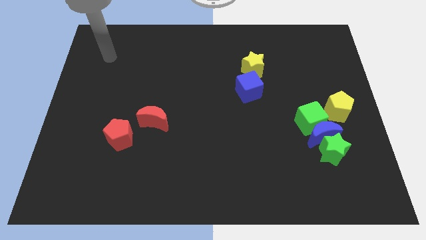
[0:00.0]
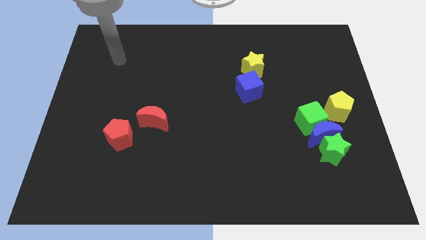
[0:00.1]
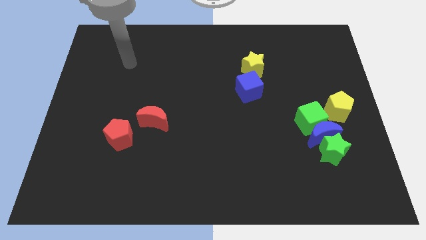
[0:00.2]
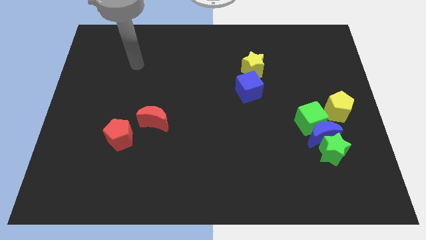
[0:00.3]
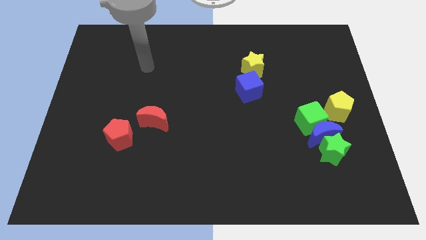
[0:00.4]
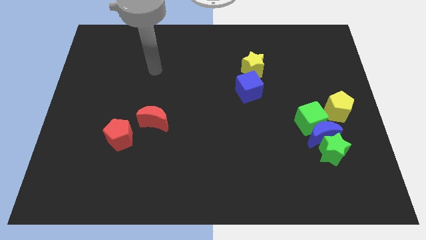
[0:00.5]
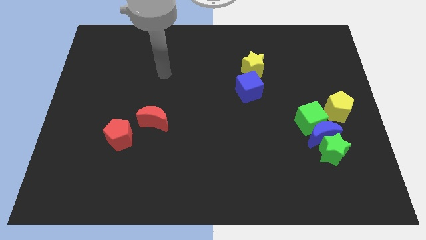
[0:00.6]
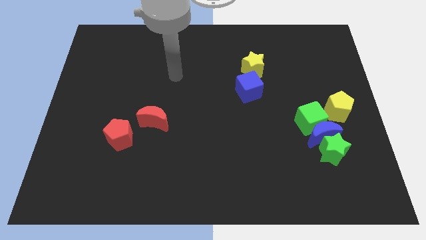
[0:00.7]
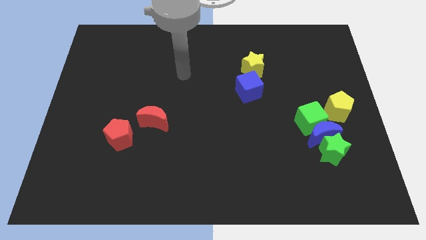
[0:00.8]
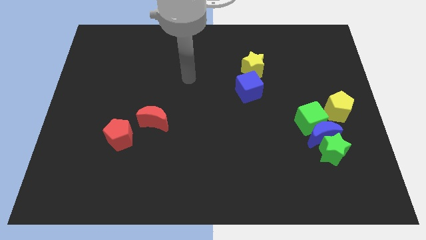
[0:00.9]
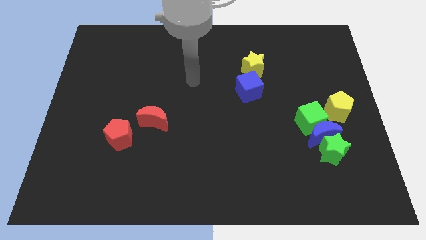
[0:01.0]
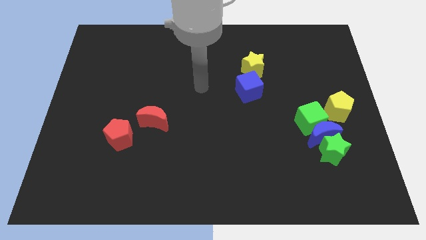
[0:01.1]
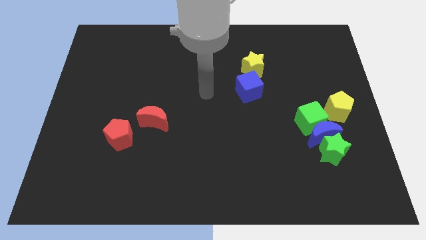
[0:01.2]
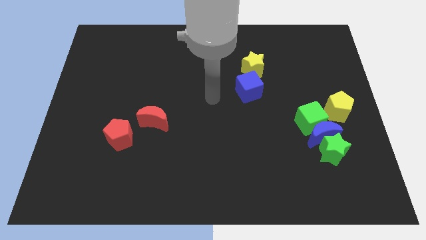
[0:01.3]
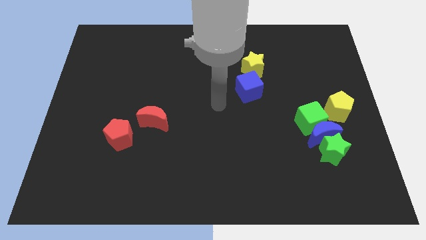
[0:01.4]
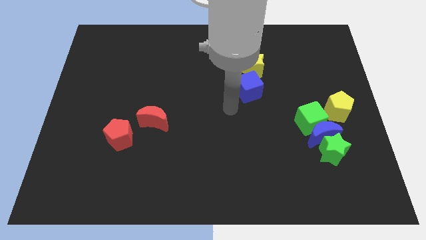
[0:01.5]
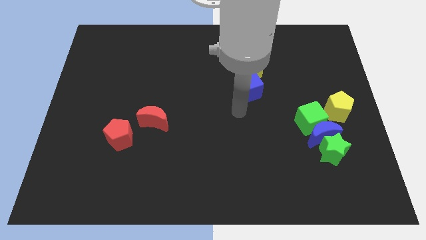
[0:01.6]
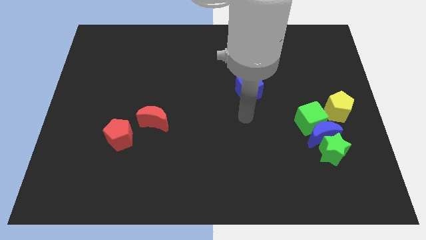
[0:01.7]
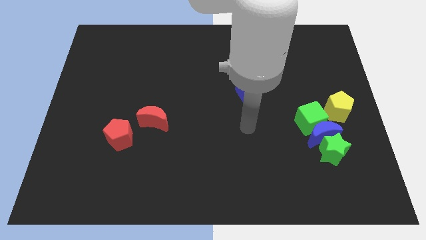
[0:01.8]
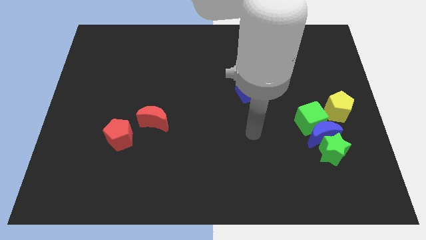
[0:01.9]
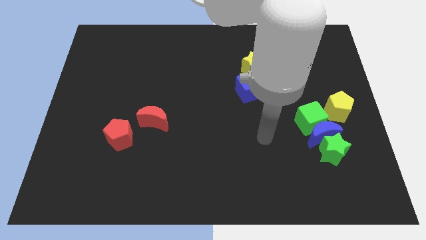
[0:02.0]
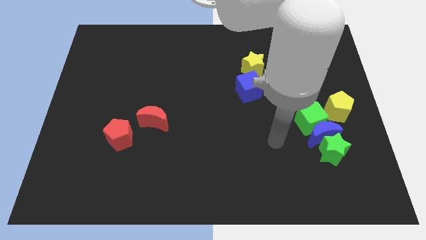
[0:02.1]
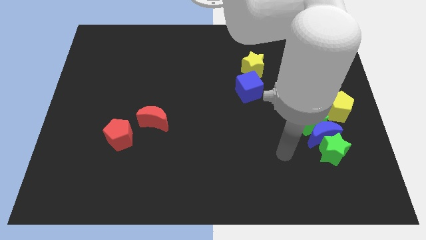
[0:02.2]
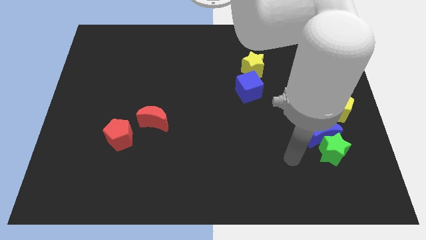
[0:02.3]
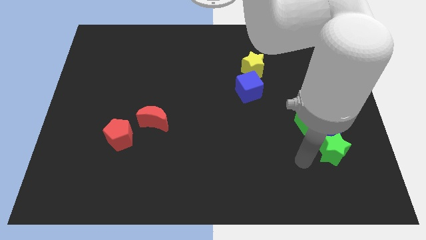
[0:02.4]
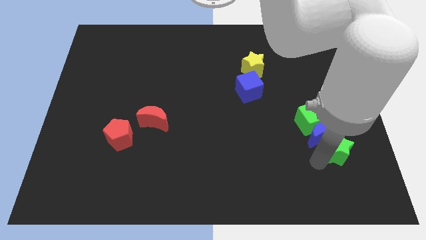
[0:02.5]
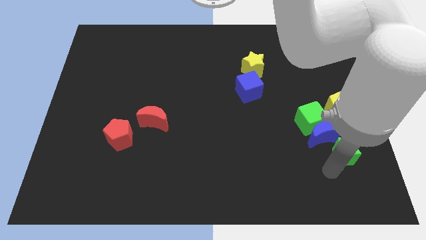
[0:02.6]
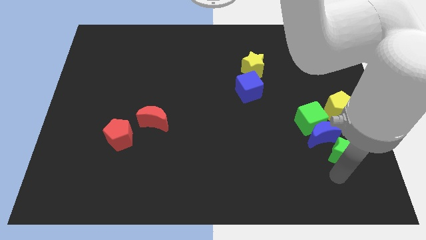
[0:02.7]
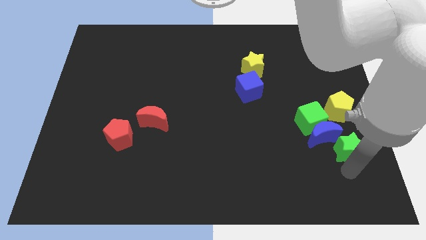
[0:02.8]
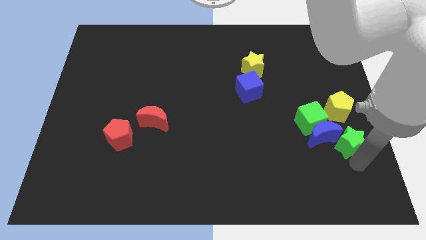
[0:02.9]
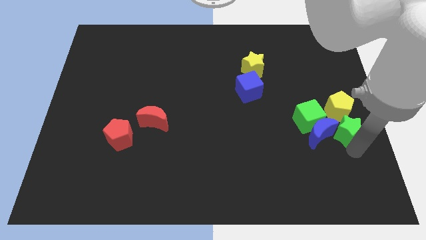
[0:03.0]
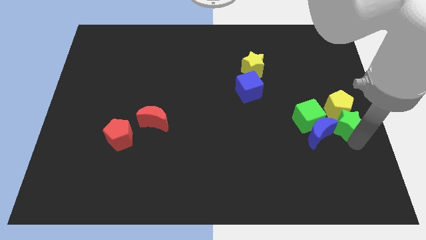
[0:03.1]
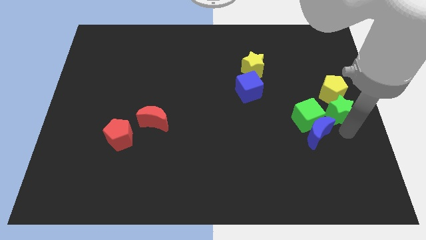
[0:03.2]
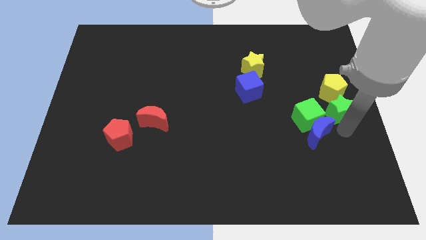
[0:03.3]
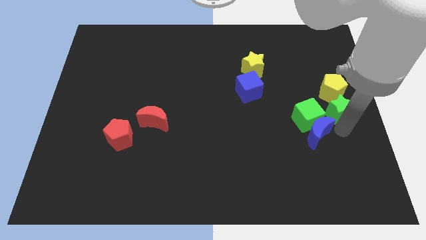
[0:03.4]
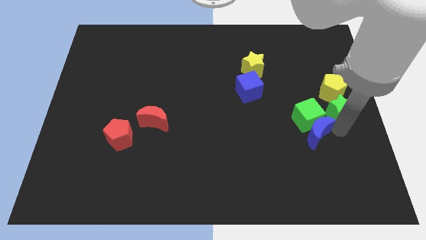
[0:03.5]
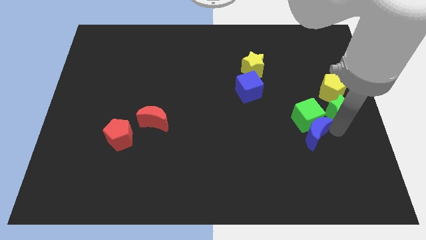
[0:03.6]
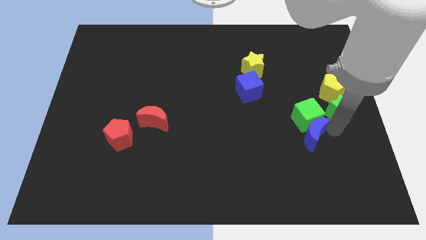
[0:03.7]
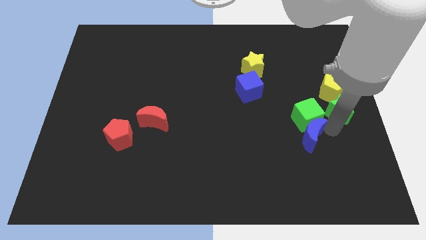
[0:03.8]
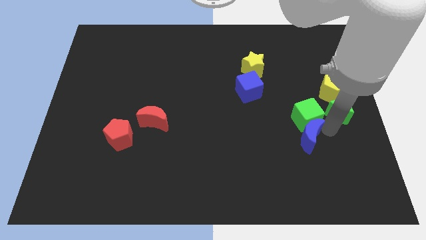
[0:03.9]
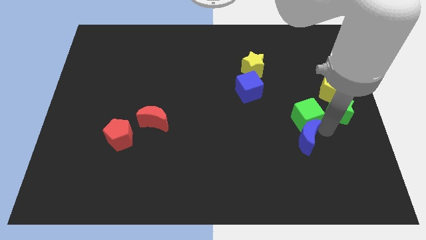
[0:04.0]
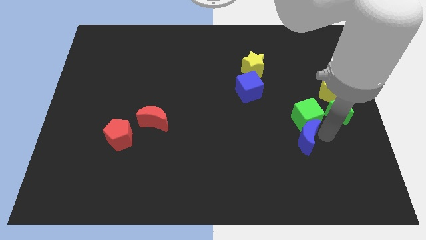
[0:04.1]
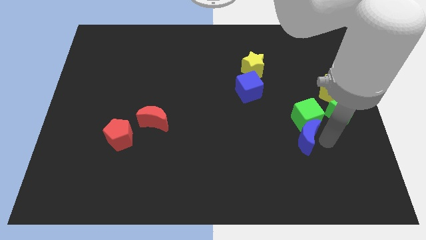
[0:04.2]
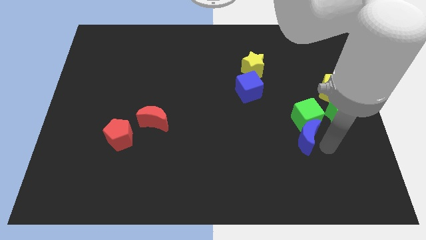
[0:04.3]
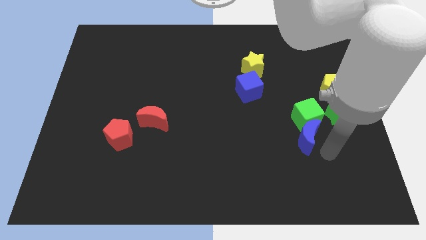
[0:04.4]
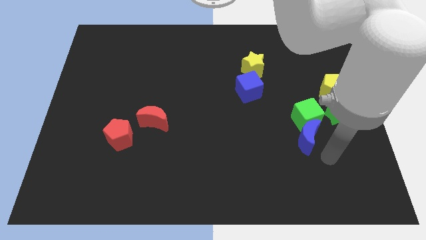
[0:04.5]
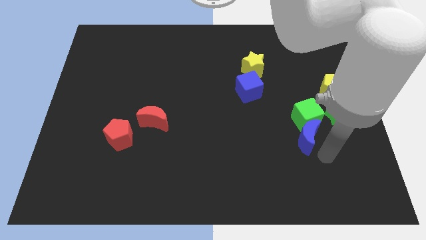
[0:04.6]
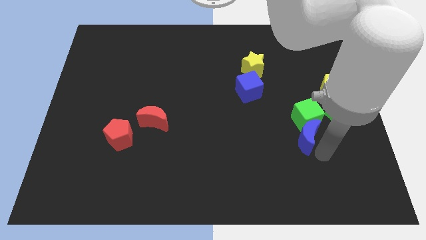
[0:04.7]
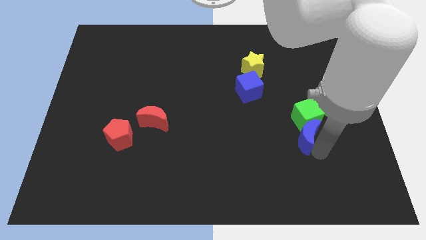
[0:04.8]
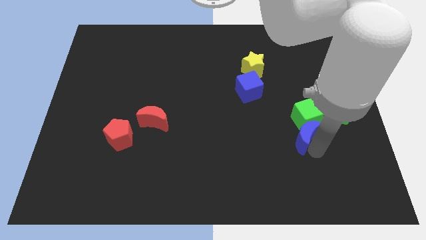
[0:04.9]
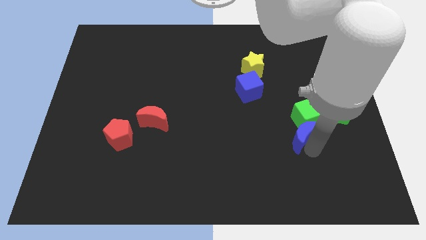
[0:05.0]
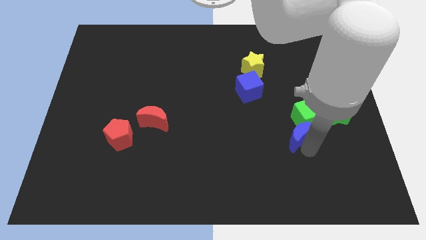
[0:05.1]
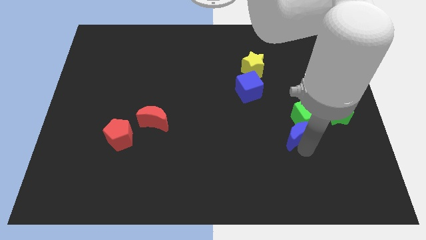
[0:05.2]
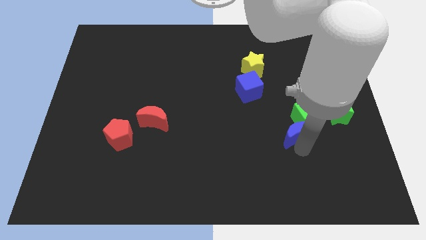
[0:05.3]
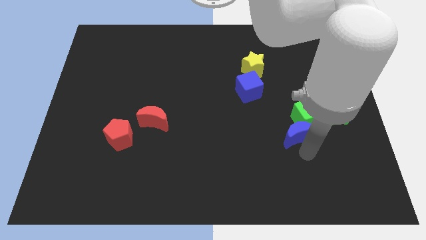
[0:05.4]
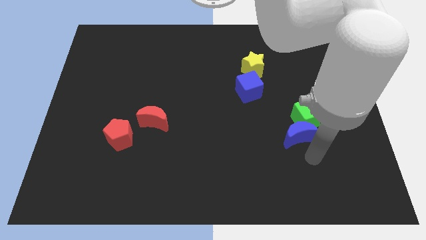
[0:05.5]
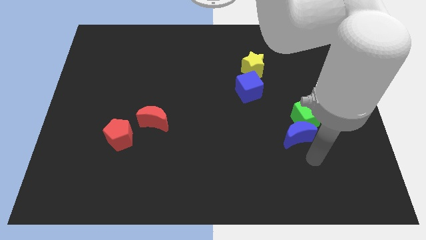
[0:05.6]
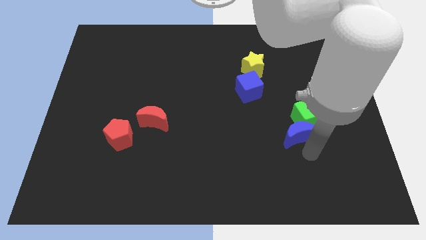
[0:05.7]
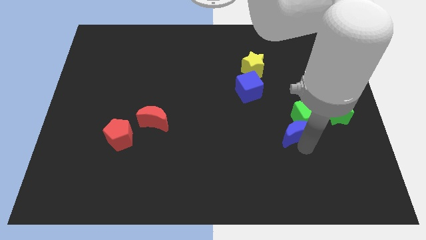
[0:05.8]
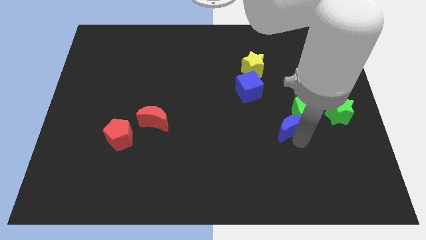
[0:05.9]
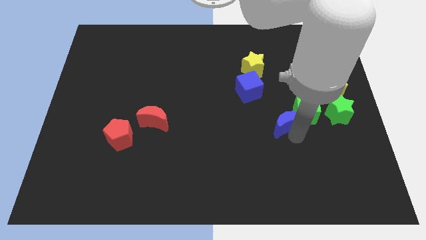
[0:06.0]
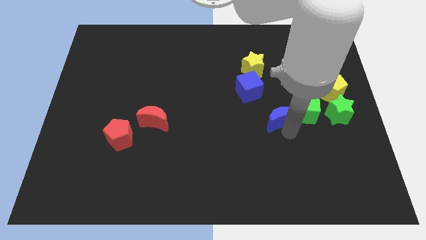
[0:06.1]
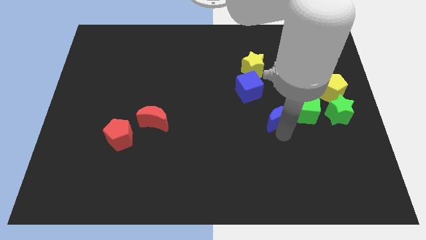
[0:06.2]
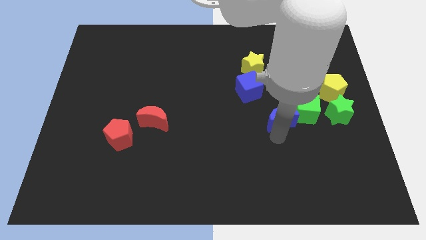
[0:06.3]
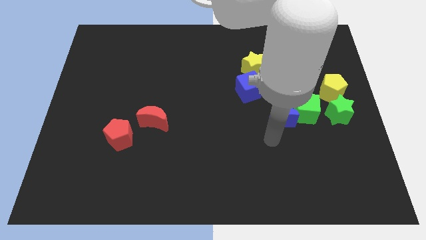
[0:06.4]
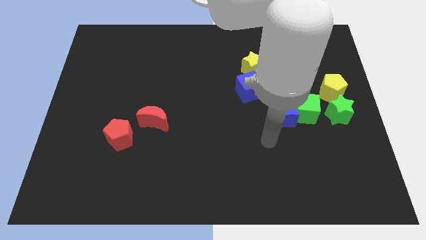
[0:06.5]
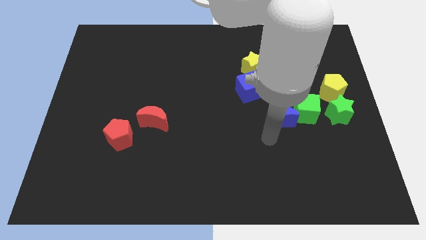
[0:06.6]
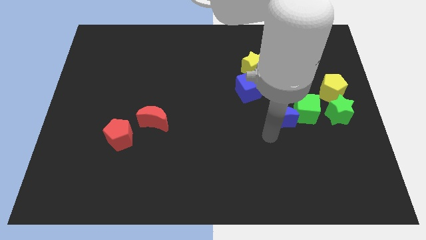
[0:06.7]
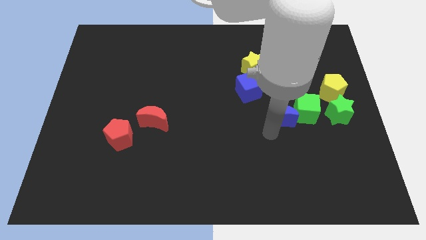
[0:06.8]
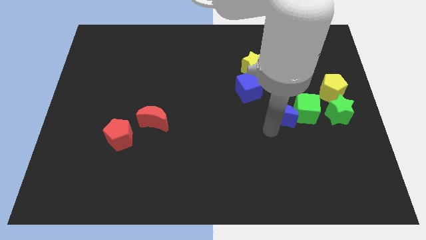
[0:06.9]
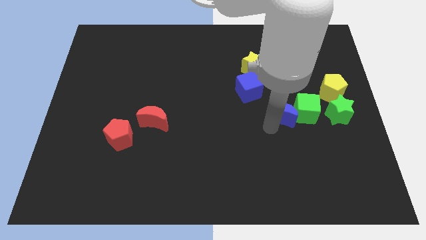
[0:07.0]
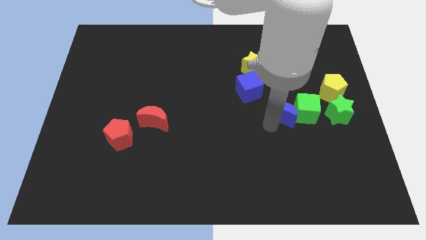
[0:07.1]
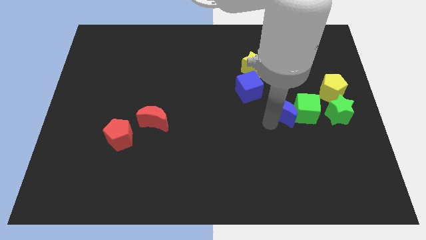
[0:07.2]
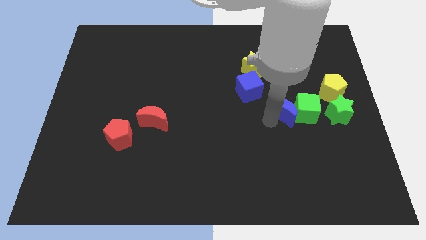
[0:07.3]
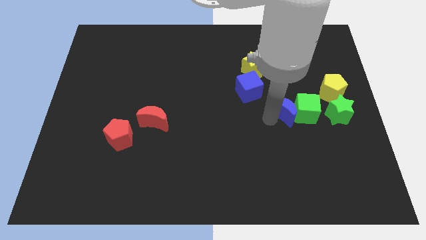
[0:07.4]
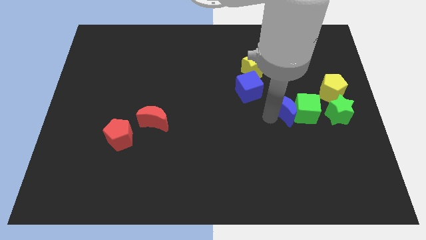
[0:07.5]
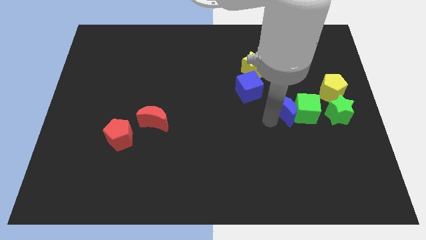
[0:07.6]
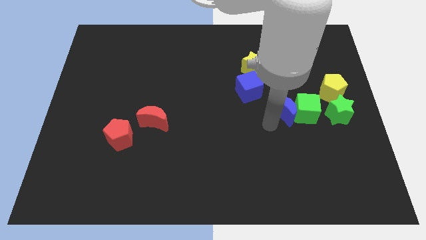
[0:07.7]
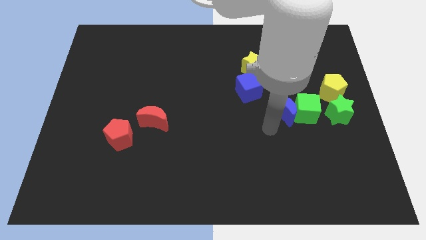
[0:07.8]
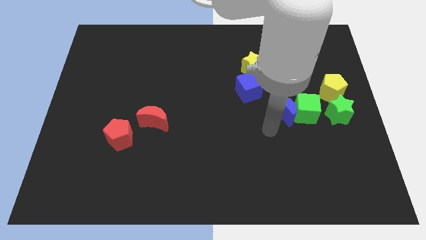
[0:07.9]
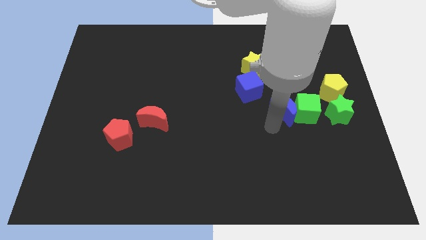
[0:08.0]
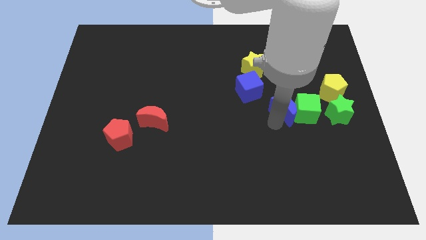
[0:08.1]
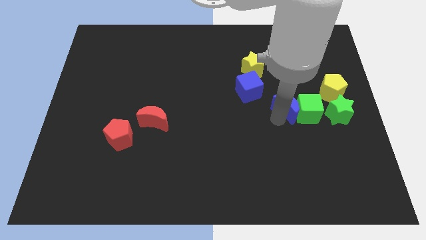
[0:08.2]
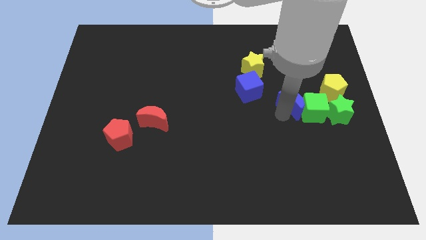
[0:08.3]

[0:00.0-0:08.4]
slightly slide the blue moon upwards
